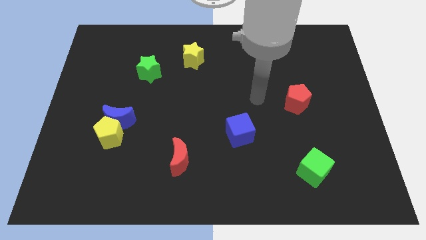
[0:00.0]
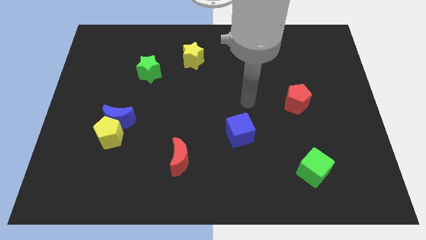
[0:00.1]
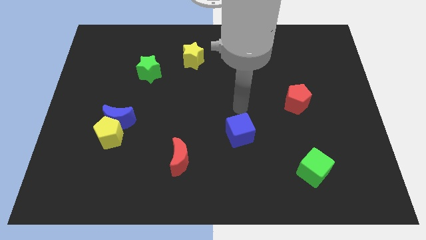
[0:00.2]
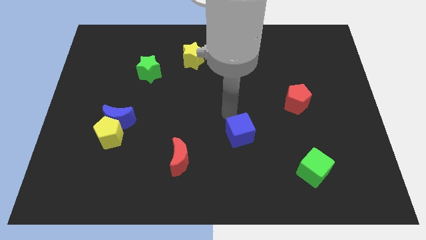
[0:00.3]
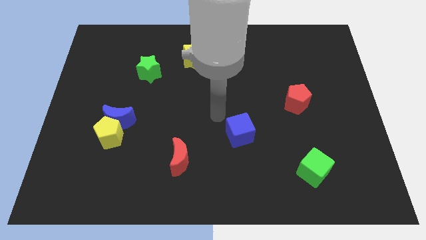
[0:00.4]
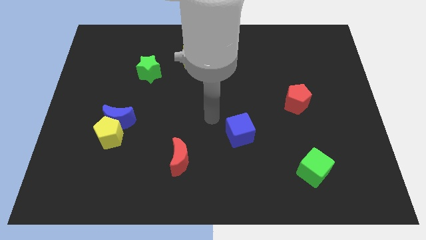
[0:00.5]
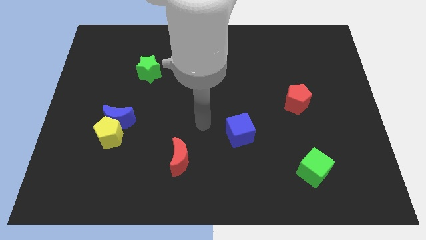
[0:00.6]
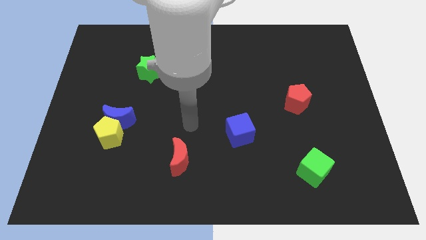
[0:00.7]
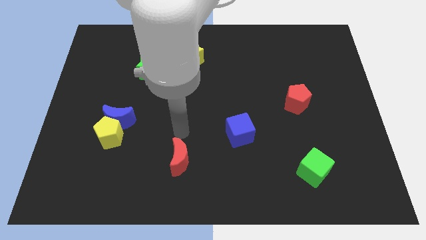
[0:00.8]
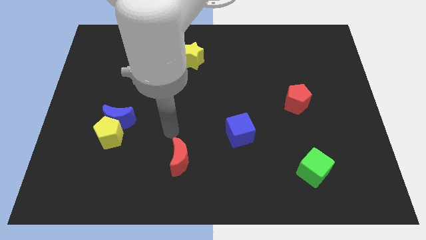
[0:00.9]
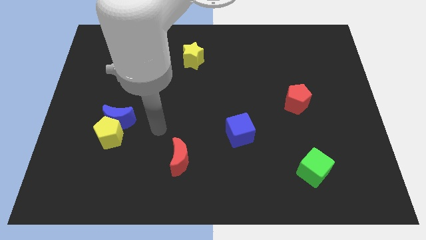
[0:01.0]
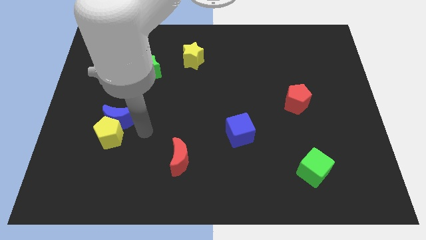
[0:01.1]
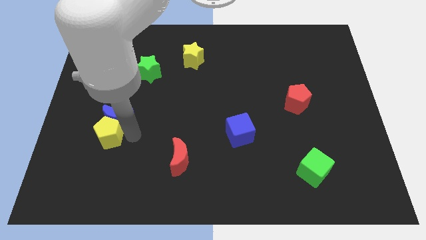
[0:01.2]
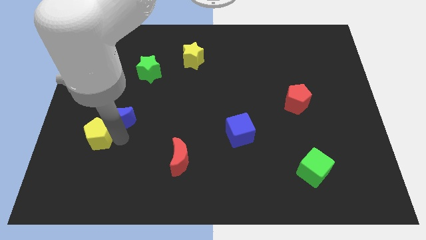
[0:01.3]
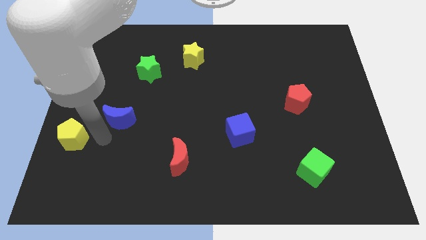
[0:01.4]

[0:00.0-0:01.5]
pull the blue moon apart from the yellow pentagon

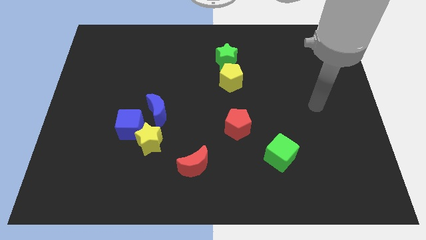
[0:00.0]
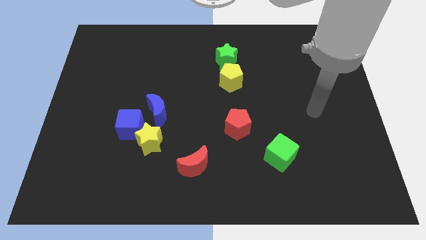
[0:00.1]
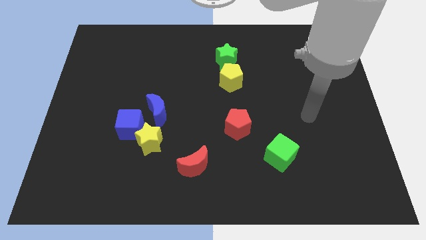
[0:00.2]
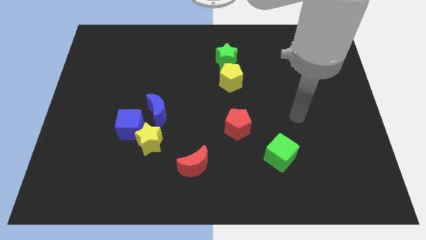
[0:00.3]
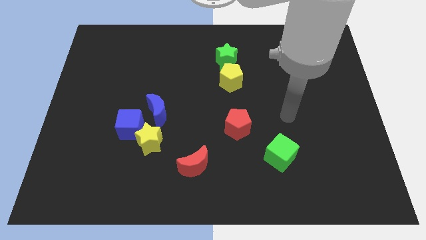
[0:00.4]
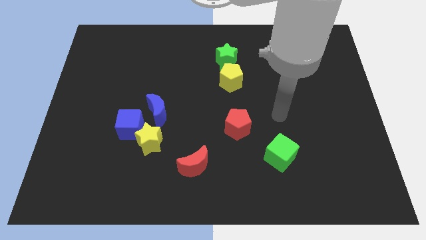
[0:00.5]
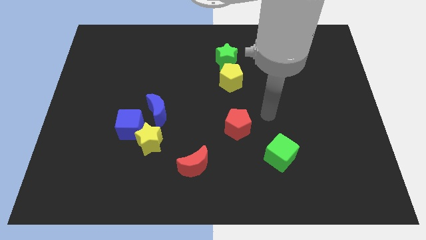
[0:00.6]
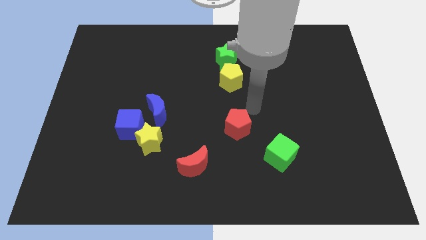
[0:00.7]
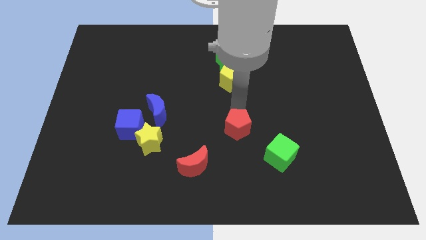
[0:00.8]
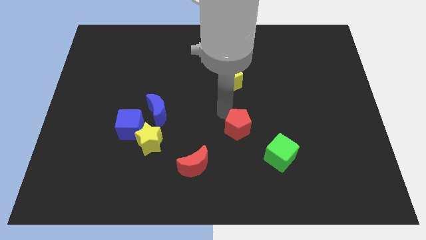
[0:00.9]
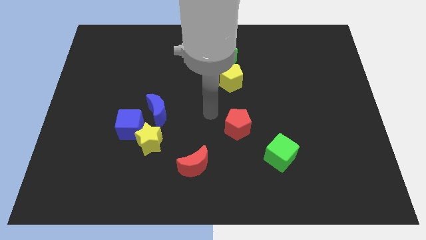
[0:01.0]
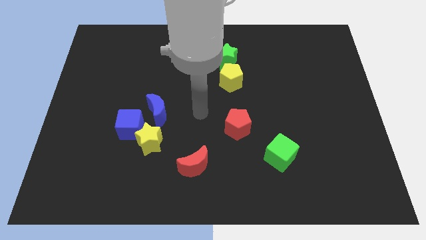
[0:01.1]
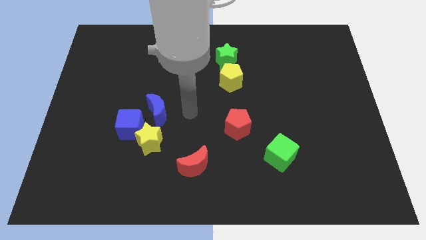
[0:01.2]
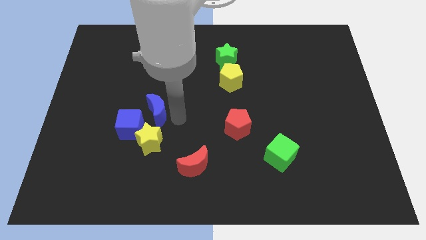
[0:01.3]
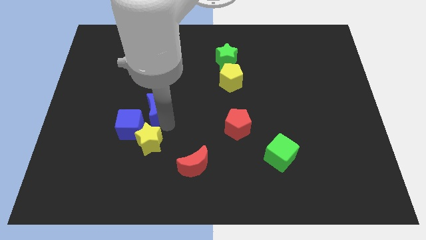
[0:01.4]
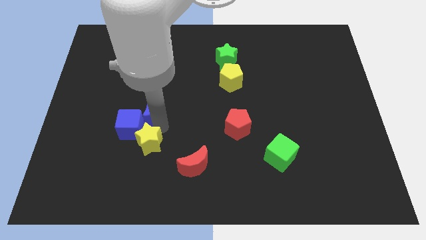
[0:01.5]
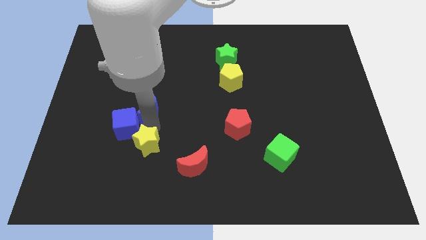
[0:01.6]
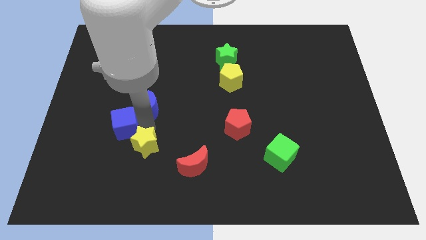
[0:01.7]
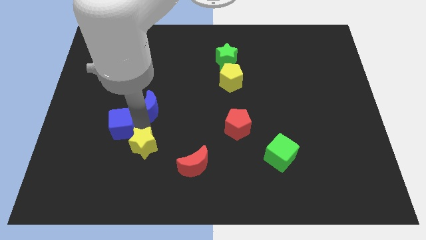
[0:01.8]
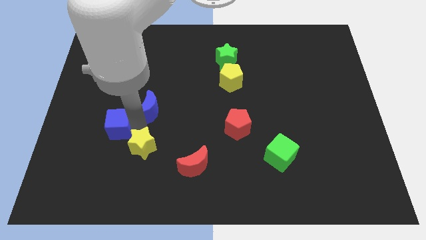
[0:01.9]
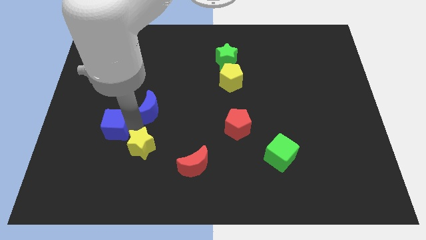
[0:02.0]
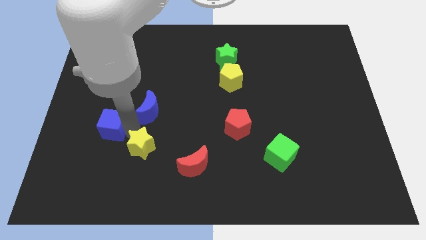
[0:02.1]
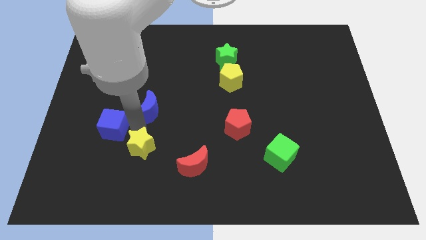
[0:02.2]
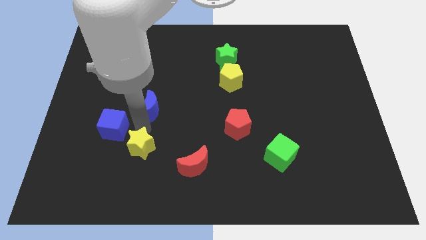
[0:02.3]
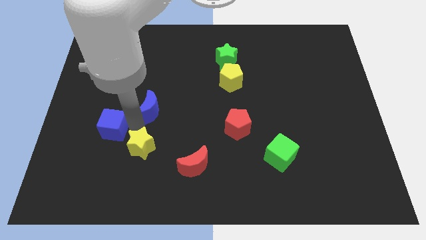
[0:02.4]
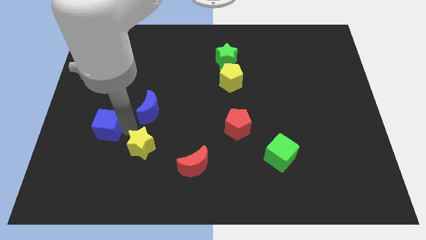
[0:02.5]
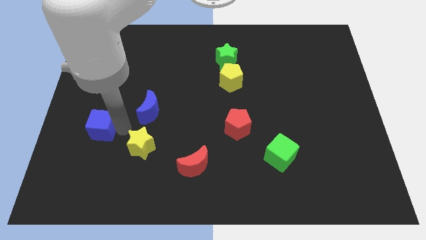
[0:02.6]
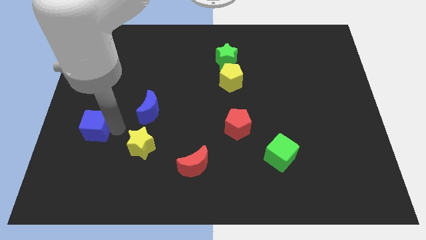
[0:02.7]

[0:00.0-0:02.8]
separate the blue cube from the yellow star and blue moon

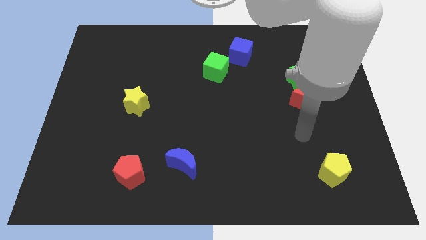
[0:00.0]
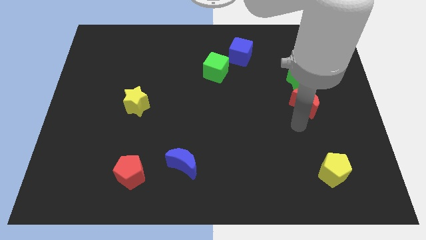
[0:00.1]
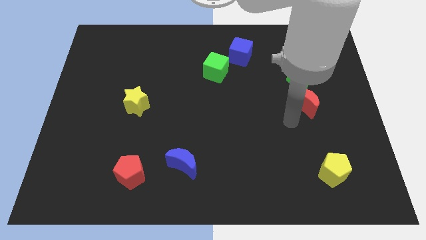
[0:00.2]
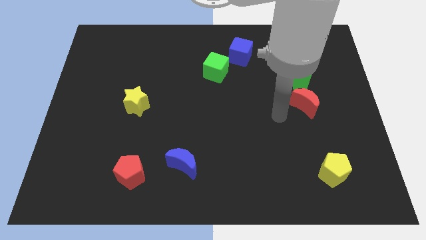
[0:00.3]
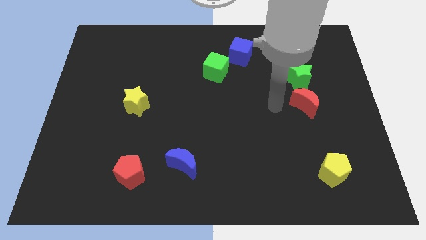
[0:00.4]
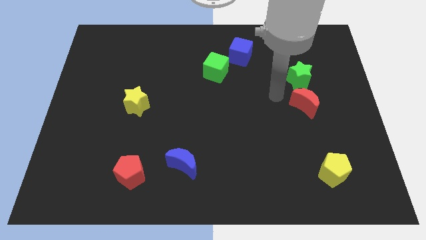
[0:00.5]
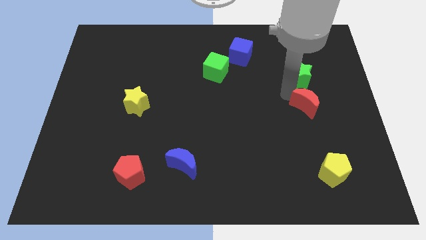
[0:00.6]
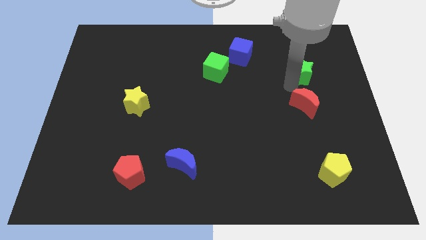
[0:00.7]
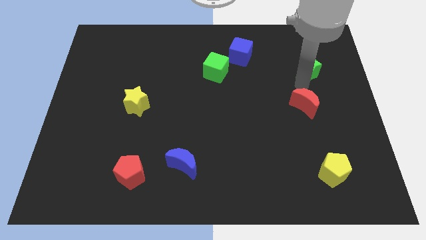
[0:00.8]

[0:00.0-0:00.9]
separate the red moon from the green star

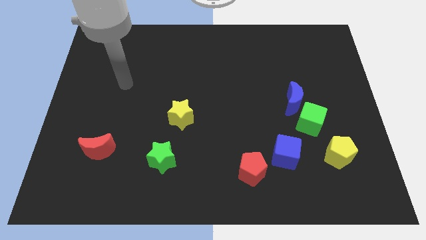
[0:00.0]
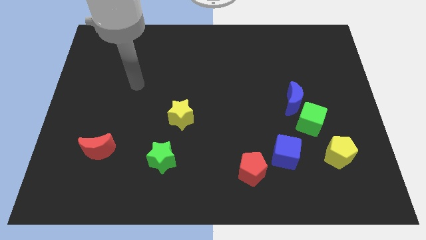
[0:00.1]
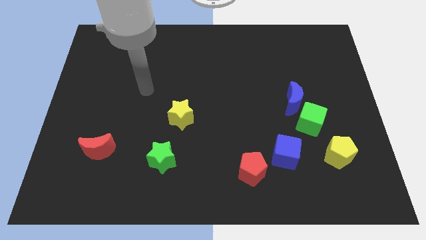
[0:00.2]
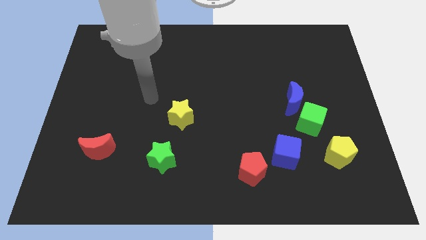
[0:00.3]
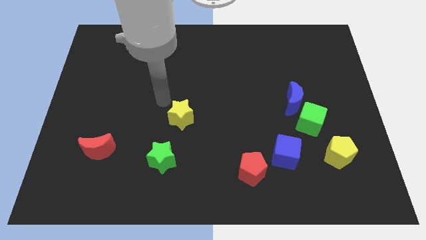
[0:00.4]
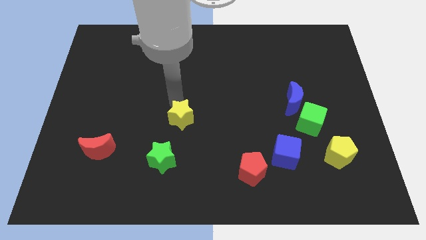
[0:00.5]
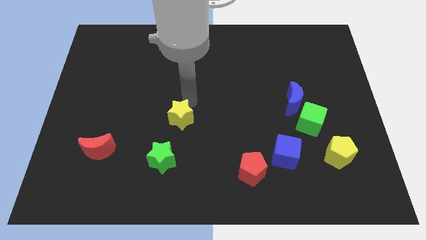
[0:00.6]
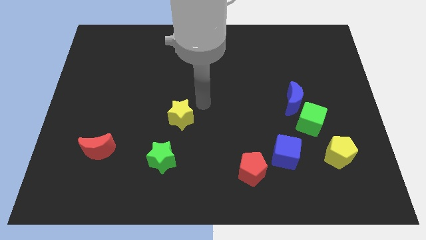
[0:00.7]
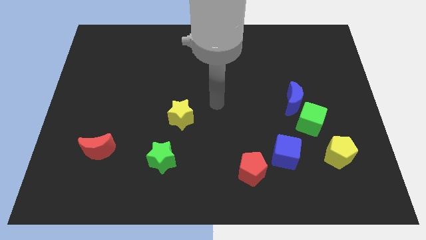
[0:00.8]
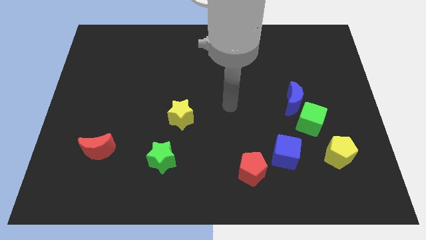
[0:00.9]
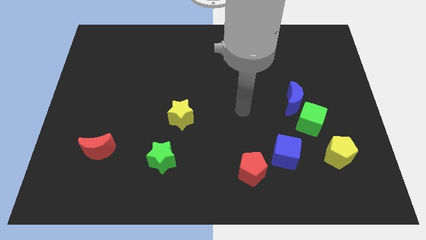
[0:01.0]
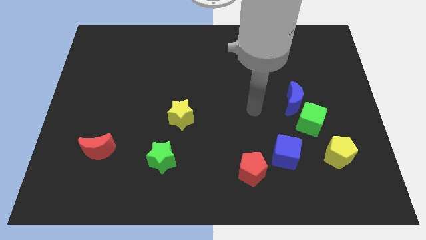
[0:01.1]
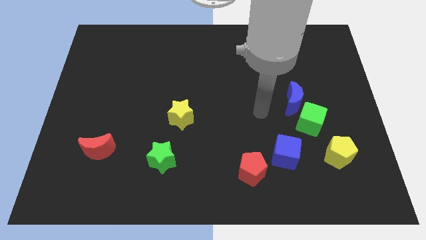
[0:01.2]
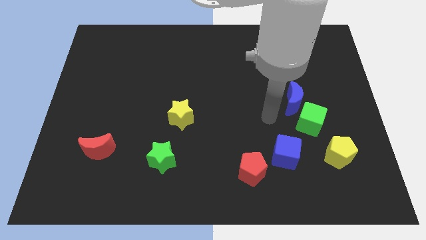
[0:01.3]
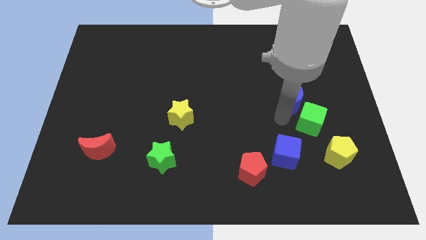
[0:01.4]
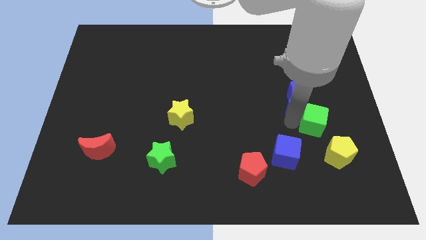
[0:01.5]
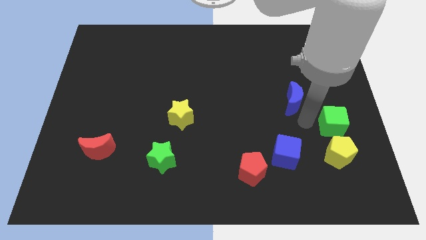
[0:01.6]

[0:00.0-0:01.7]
pull the blue moon apart from the green cube

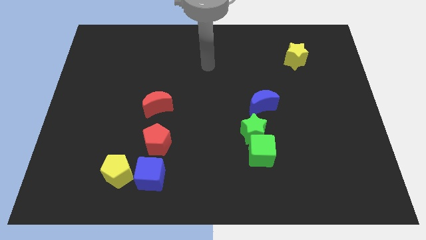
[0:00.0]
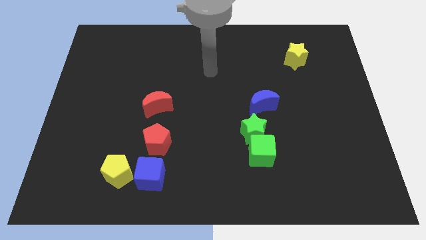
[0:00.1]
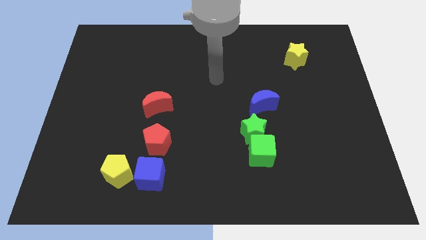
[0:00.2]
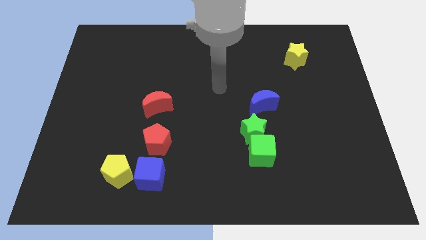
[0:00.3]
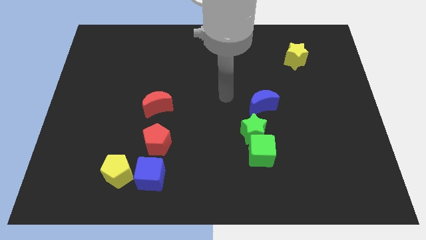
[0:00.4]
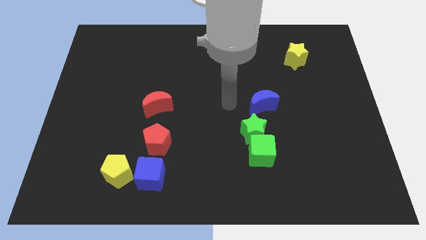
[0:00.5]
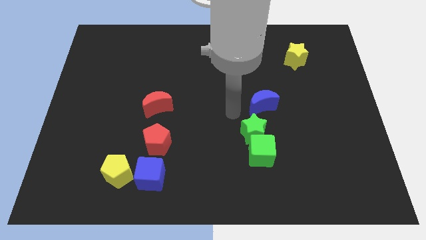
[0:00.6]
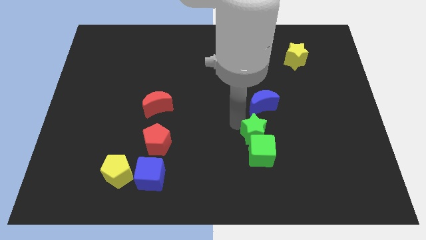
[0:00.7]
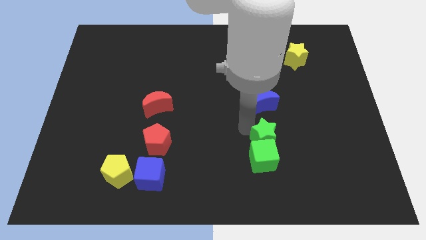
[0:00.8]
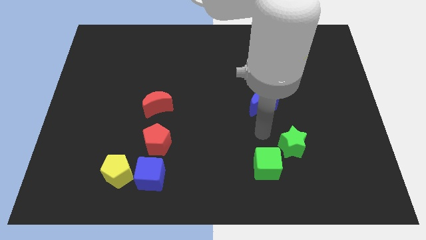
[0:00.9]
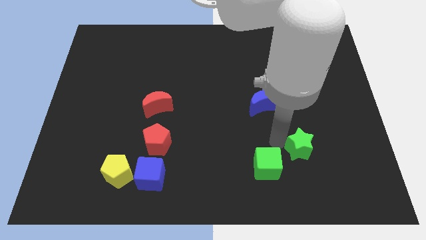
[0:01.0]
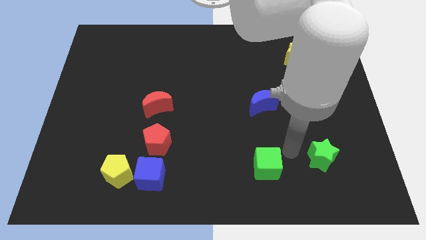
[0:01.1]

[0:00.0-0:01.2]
separate the green cube from the green star

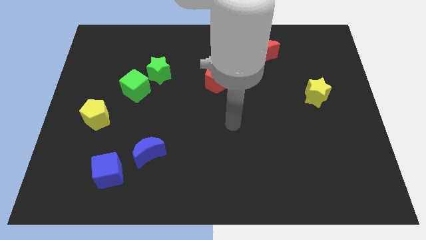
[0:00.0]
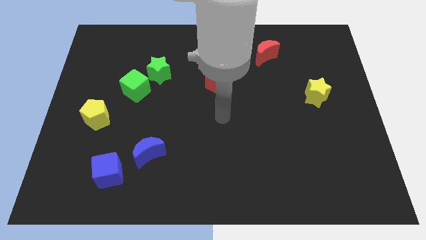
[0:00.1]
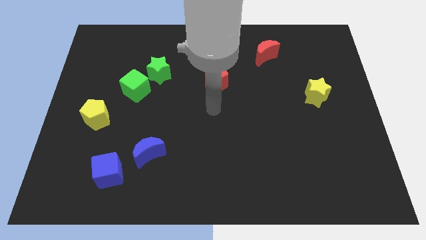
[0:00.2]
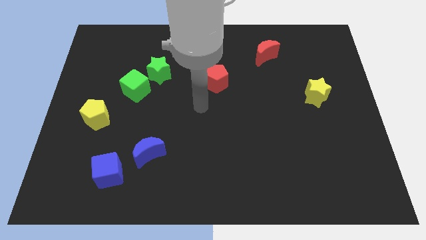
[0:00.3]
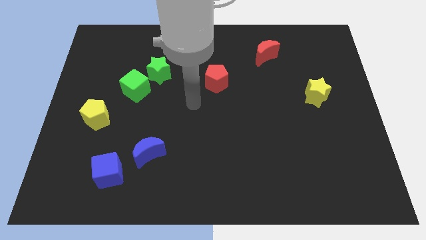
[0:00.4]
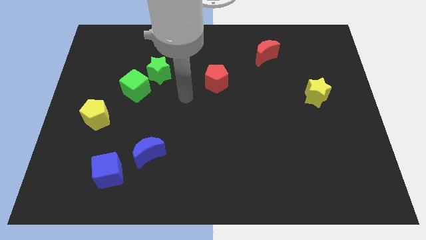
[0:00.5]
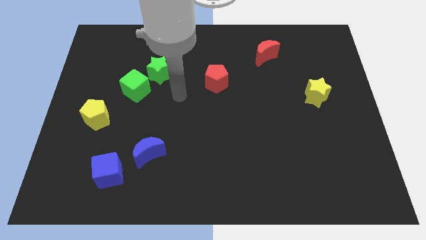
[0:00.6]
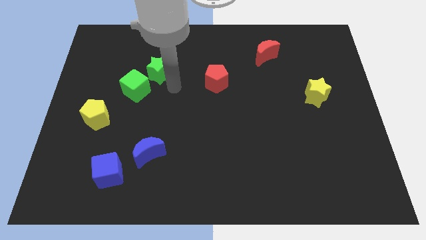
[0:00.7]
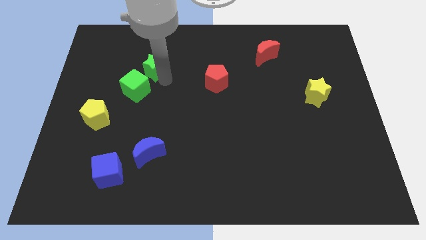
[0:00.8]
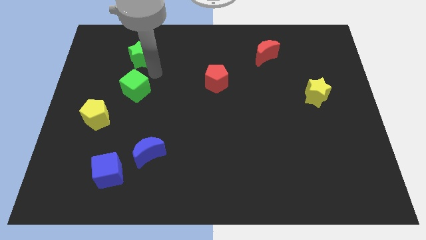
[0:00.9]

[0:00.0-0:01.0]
pull the green cube apart from the green star
